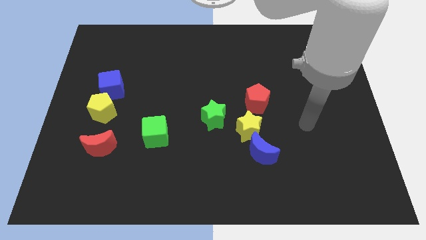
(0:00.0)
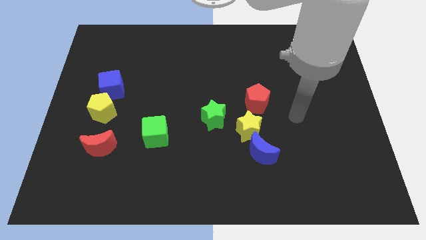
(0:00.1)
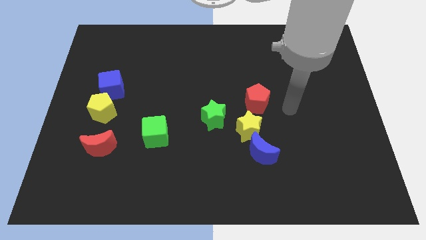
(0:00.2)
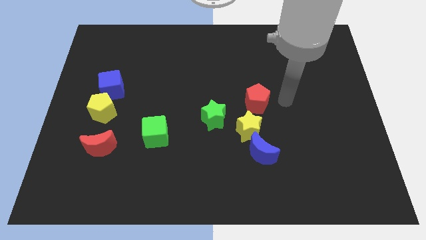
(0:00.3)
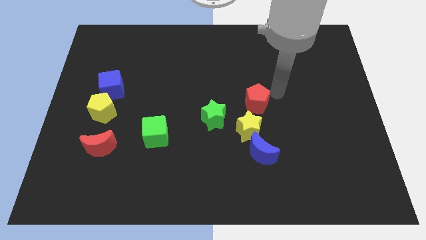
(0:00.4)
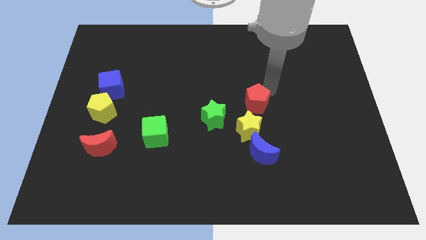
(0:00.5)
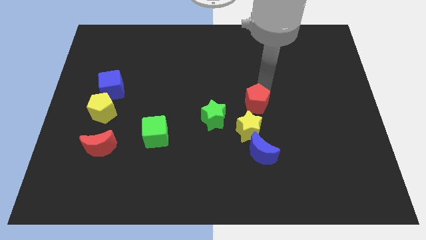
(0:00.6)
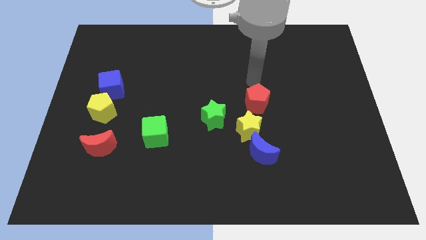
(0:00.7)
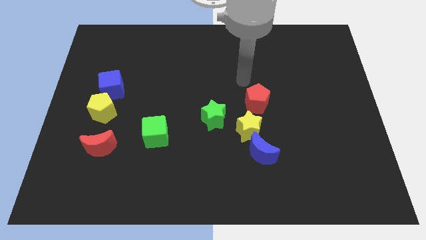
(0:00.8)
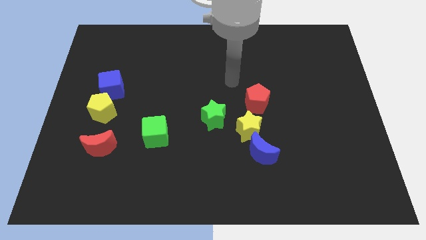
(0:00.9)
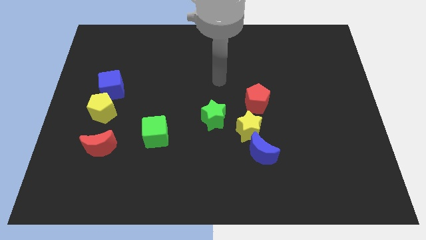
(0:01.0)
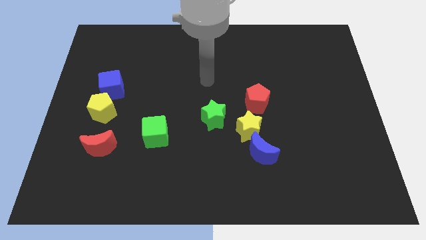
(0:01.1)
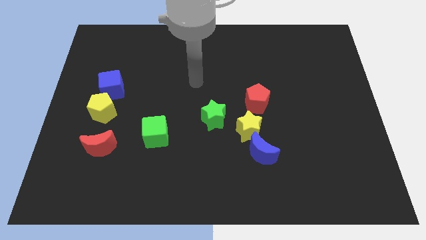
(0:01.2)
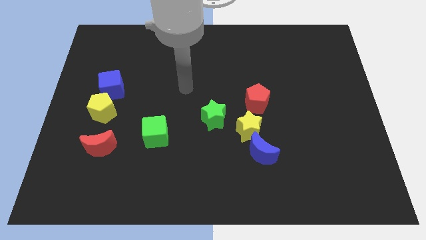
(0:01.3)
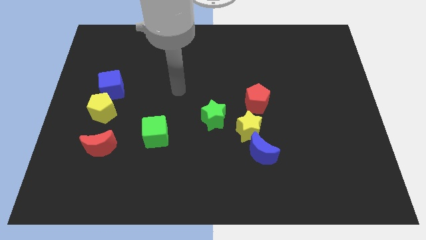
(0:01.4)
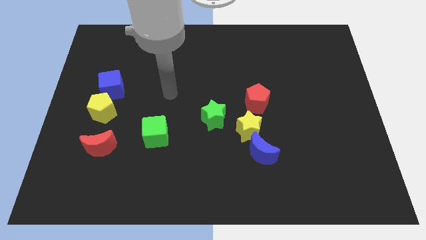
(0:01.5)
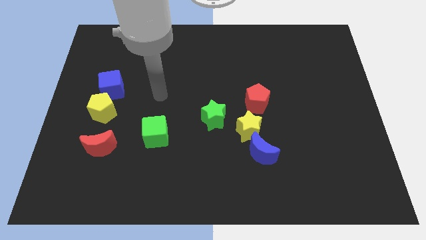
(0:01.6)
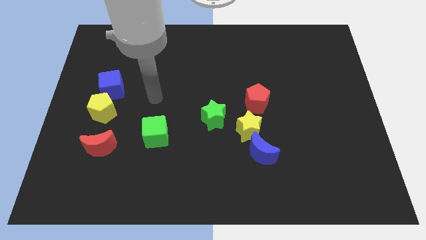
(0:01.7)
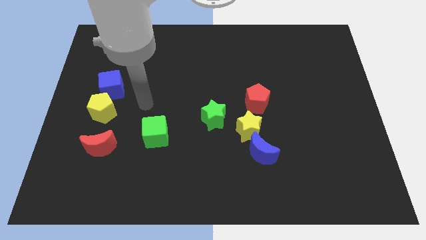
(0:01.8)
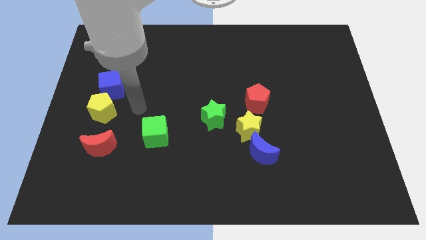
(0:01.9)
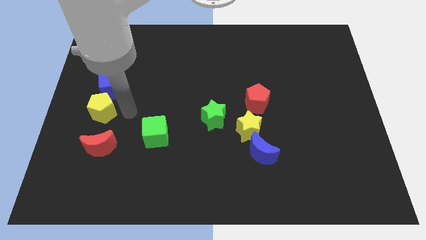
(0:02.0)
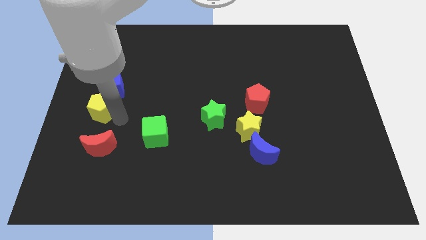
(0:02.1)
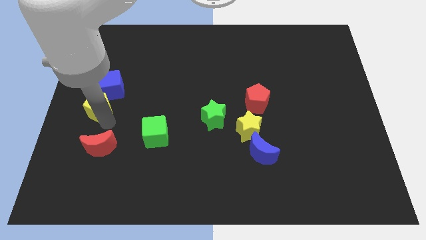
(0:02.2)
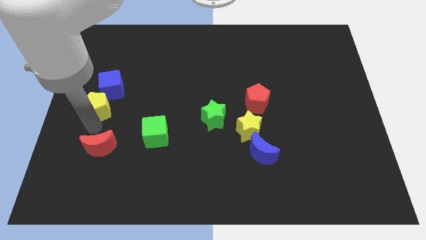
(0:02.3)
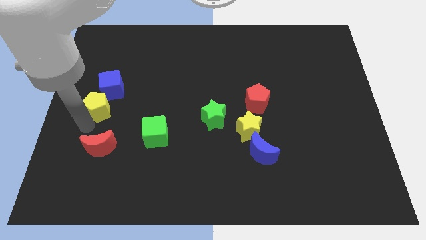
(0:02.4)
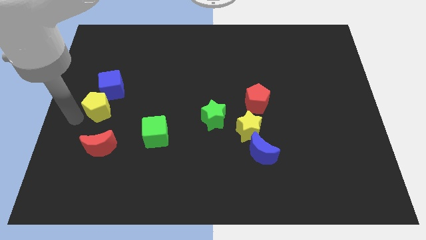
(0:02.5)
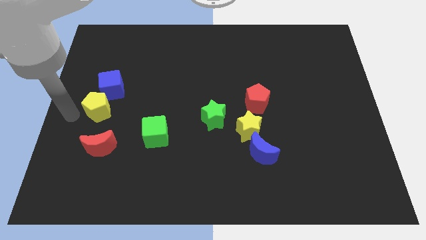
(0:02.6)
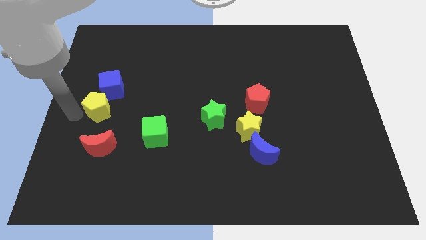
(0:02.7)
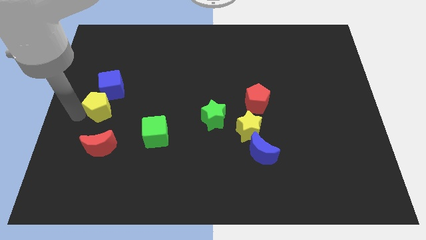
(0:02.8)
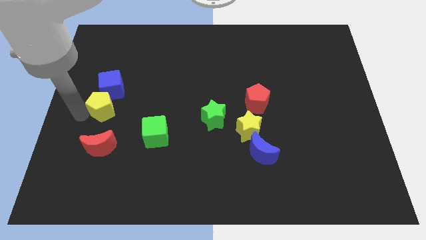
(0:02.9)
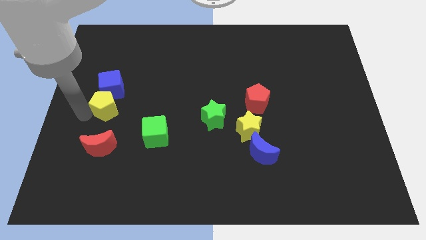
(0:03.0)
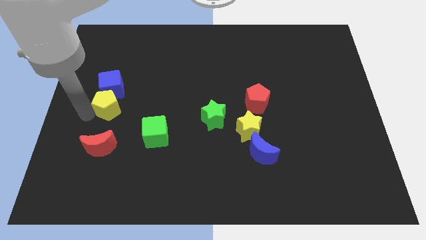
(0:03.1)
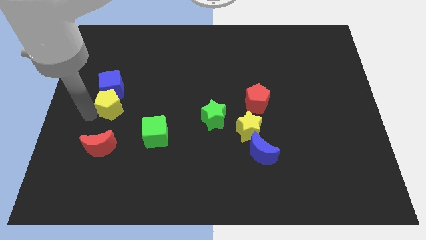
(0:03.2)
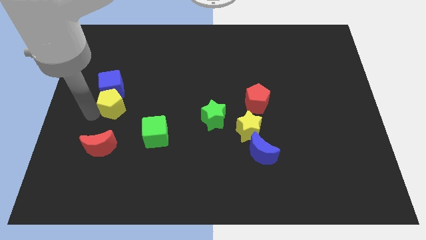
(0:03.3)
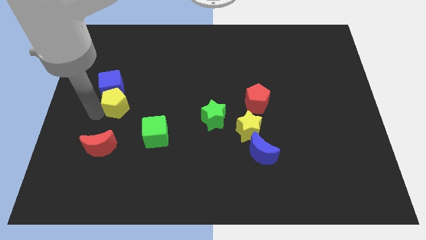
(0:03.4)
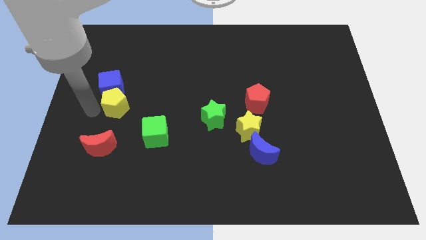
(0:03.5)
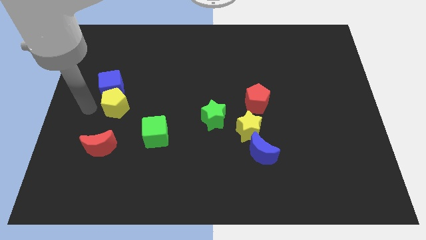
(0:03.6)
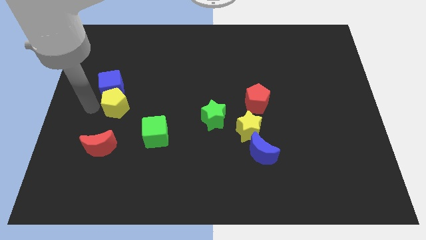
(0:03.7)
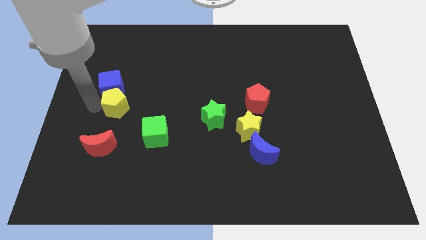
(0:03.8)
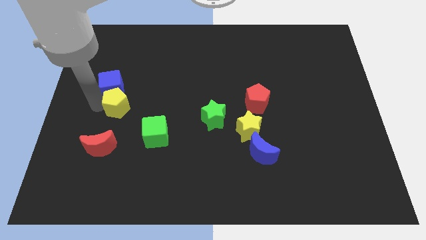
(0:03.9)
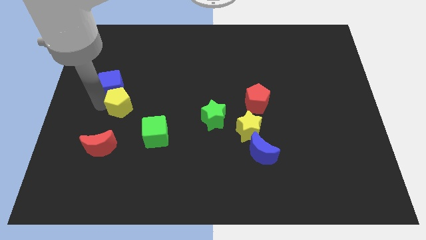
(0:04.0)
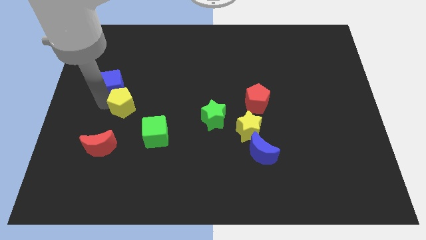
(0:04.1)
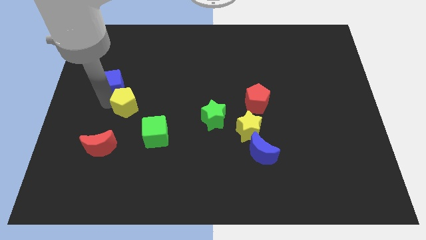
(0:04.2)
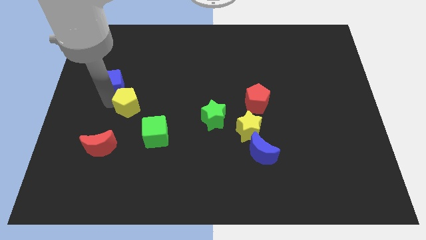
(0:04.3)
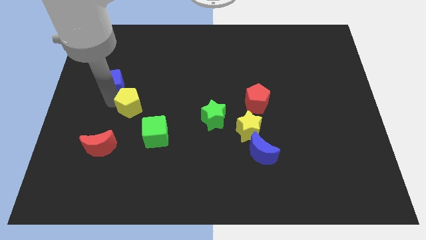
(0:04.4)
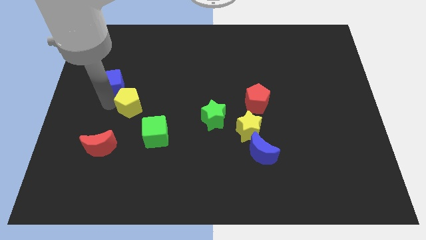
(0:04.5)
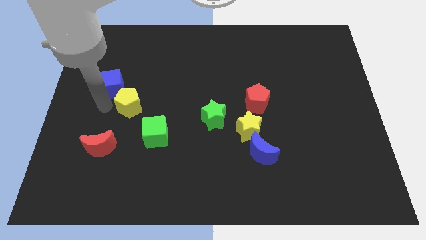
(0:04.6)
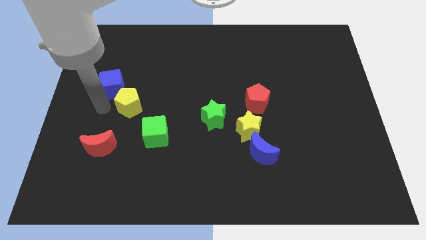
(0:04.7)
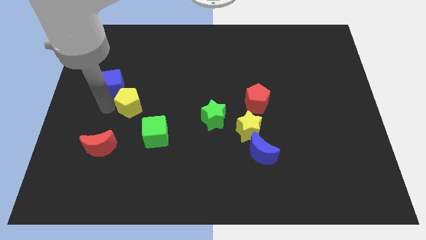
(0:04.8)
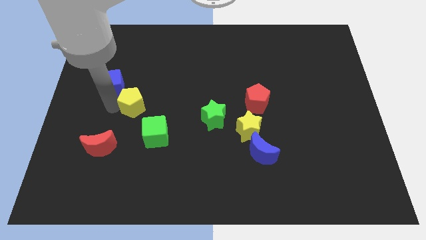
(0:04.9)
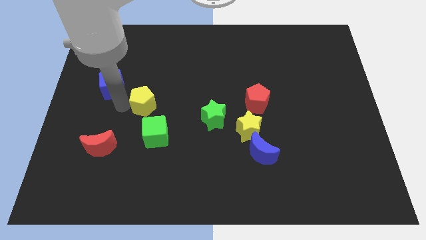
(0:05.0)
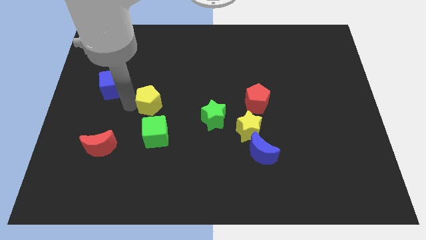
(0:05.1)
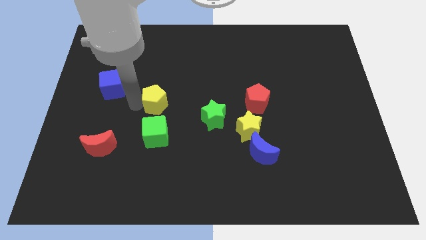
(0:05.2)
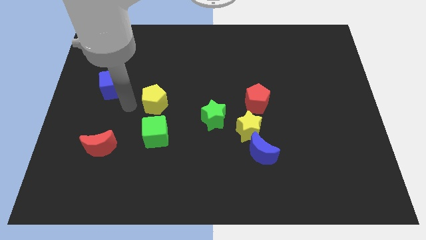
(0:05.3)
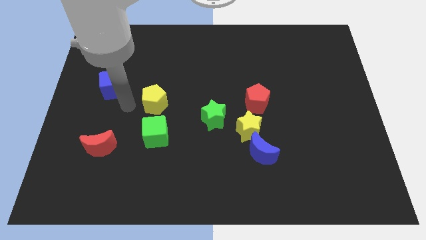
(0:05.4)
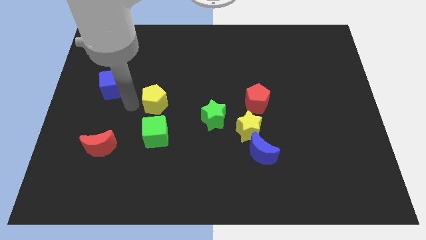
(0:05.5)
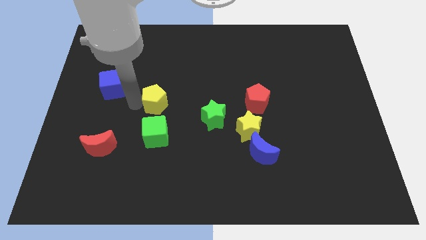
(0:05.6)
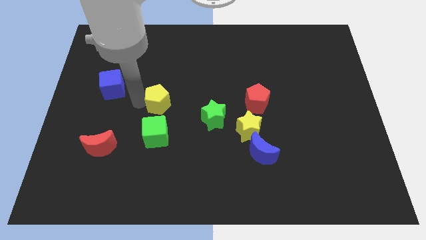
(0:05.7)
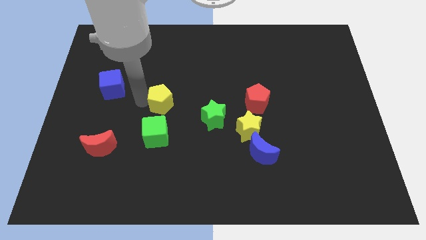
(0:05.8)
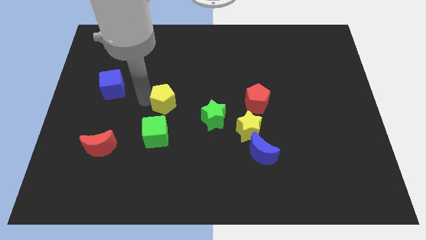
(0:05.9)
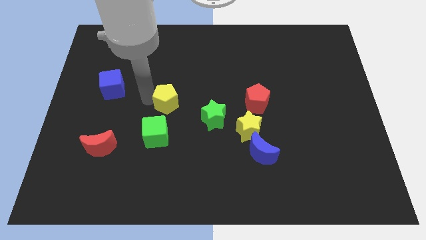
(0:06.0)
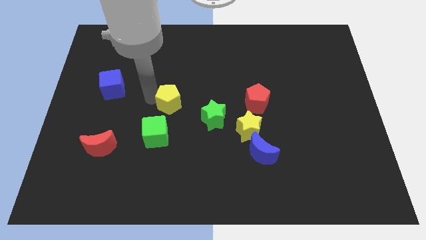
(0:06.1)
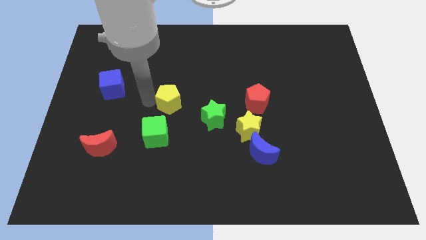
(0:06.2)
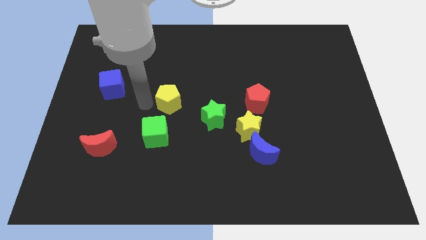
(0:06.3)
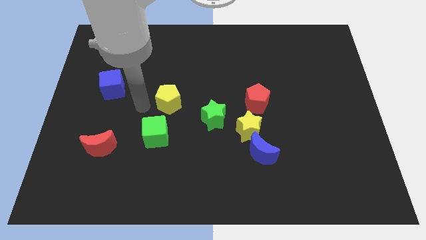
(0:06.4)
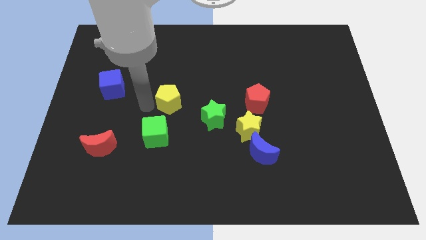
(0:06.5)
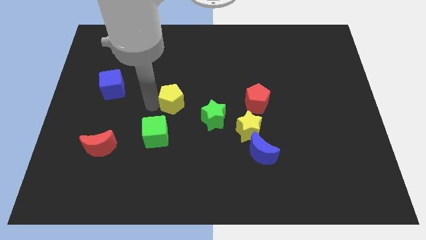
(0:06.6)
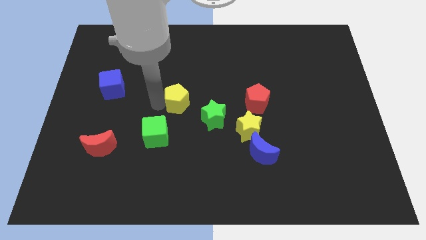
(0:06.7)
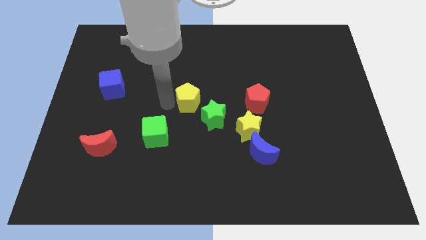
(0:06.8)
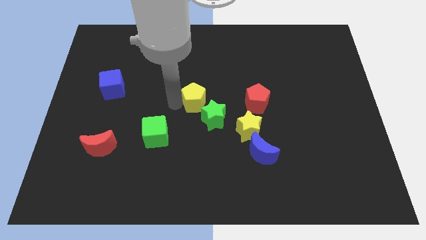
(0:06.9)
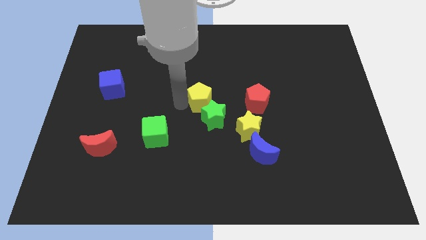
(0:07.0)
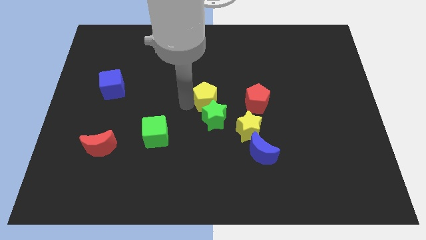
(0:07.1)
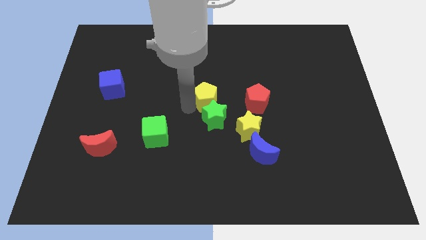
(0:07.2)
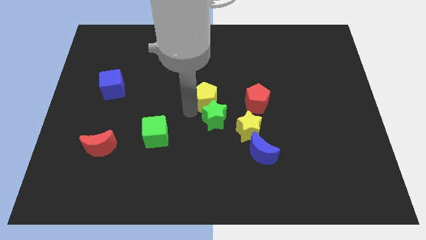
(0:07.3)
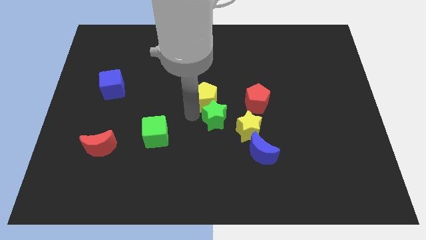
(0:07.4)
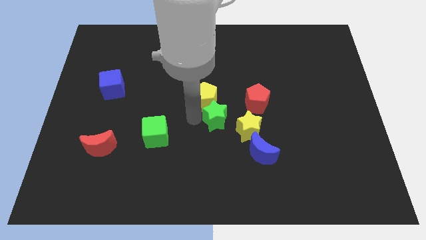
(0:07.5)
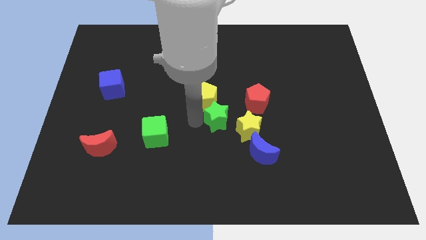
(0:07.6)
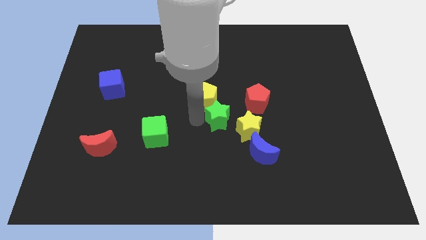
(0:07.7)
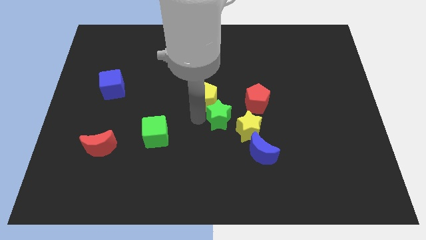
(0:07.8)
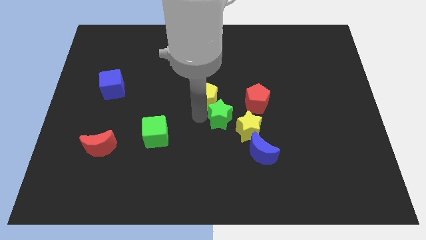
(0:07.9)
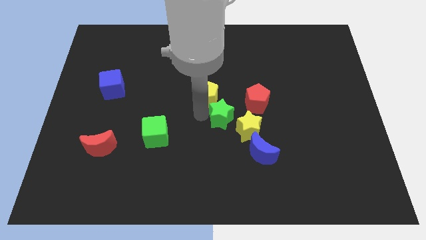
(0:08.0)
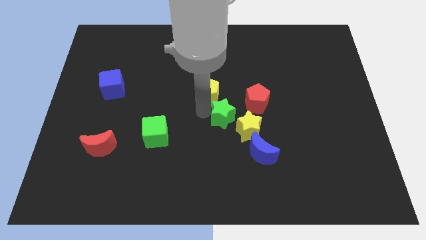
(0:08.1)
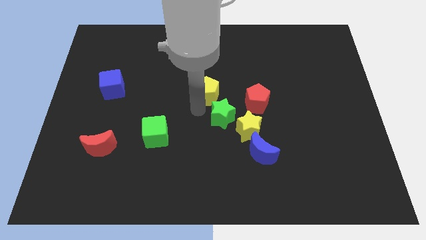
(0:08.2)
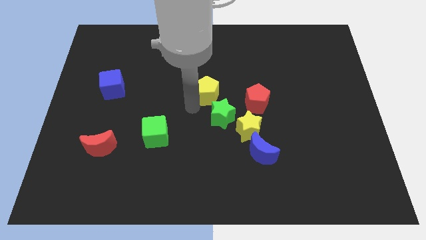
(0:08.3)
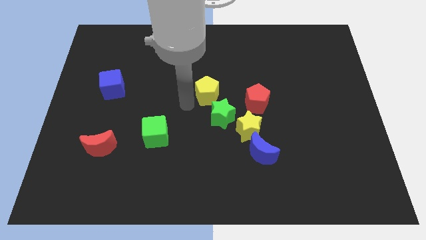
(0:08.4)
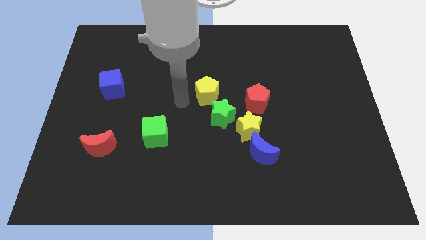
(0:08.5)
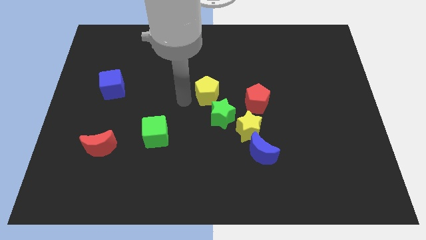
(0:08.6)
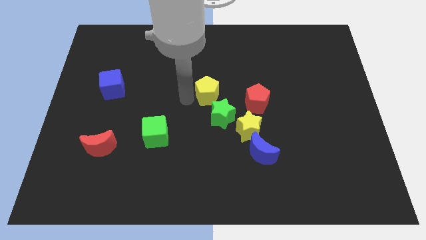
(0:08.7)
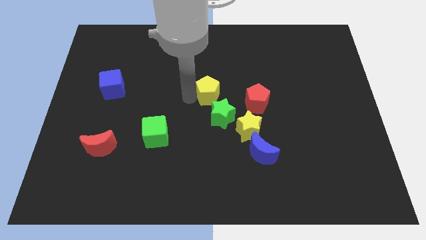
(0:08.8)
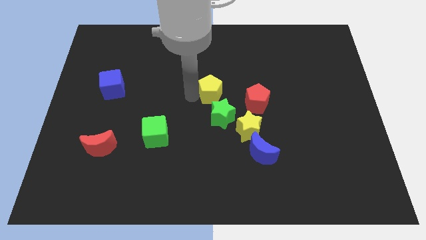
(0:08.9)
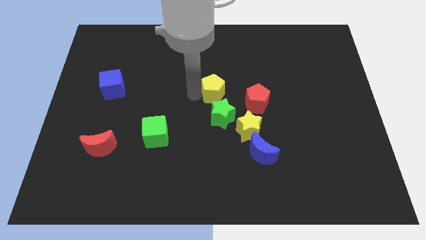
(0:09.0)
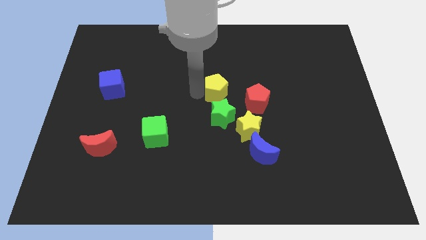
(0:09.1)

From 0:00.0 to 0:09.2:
put the yellow pentagon diagonally up and to the left of the red pentagon
